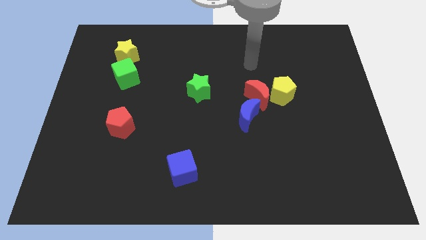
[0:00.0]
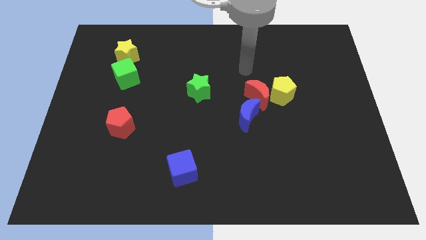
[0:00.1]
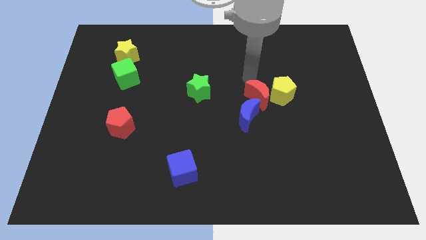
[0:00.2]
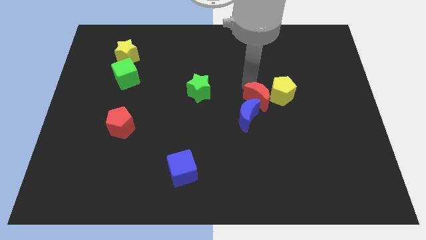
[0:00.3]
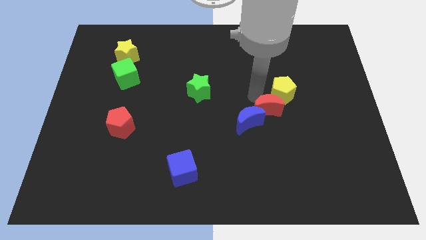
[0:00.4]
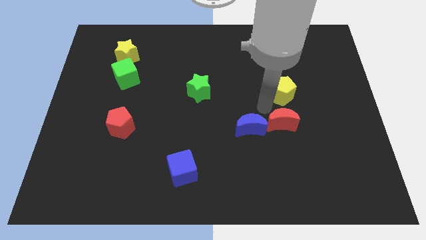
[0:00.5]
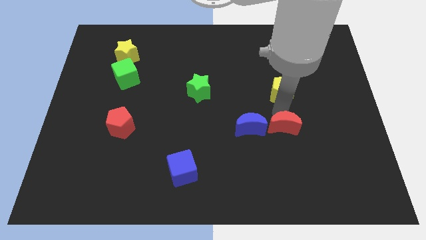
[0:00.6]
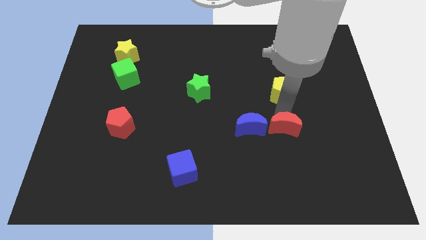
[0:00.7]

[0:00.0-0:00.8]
move the yellow pentagon away from the red moon

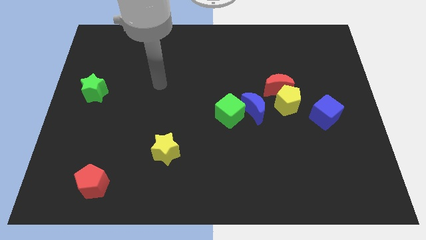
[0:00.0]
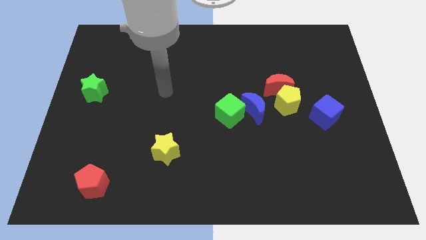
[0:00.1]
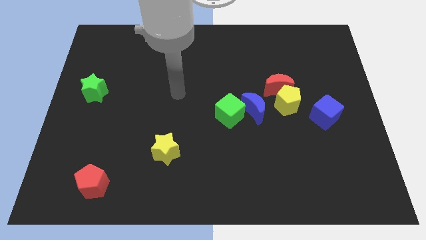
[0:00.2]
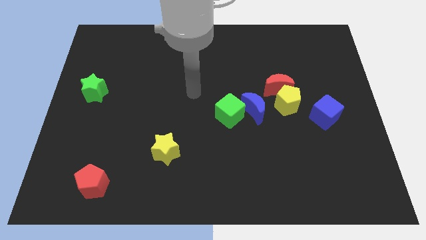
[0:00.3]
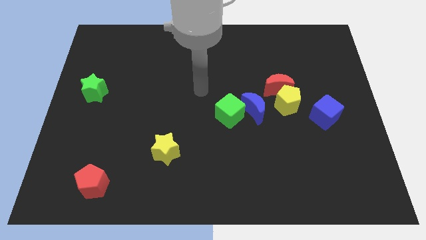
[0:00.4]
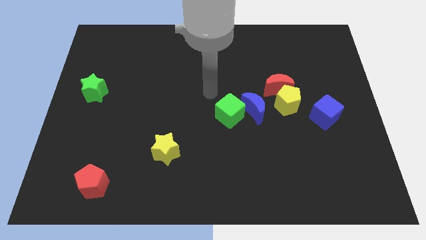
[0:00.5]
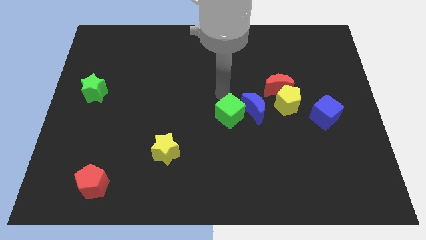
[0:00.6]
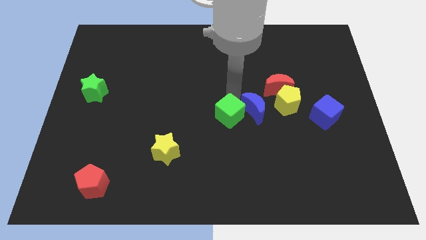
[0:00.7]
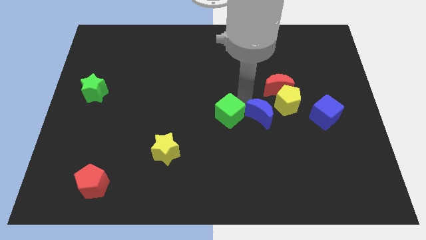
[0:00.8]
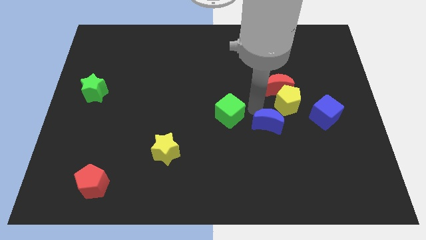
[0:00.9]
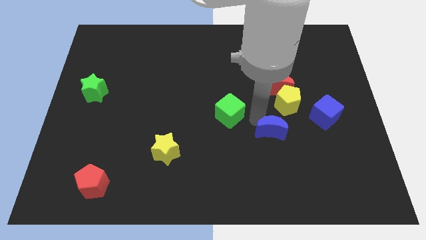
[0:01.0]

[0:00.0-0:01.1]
move the green cube away from the blue moon

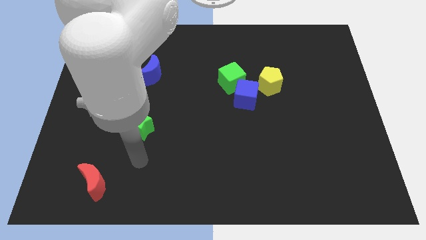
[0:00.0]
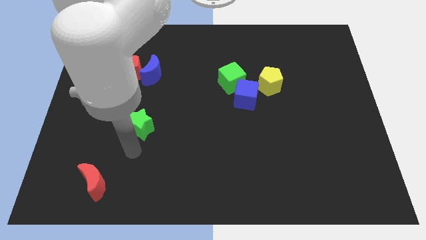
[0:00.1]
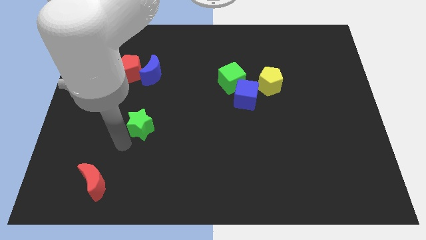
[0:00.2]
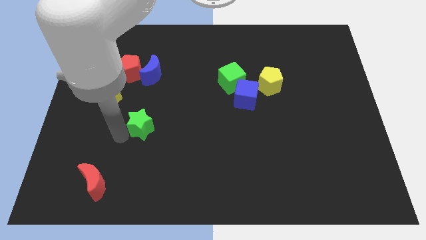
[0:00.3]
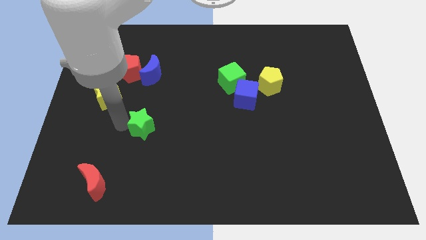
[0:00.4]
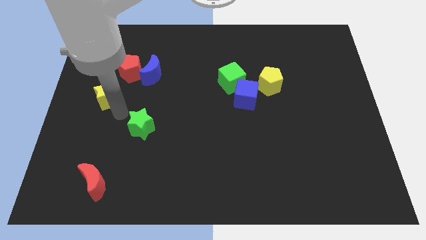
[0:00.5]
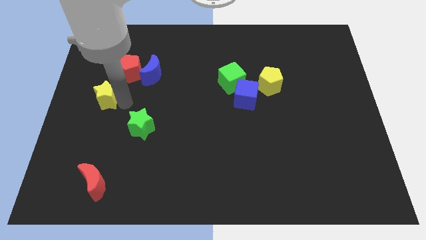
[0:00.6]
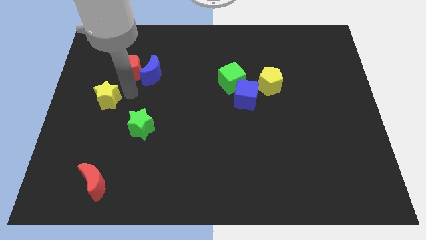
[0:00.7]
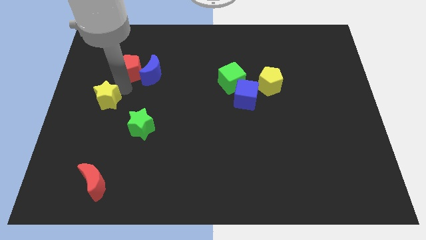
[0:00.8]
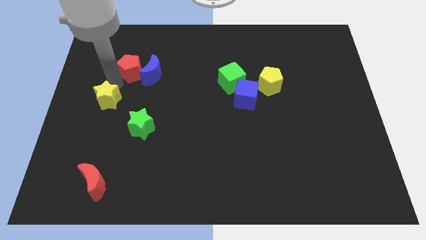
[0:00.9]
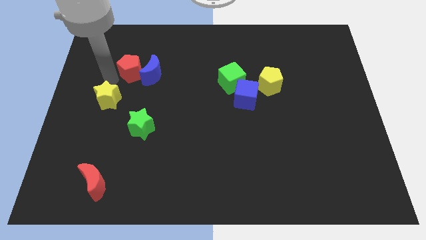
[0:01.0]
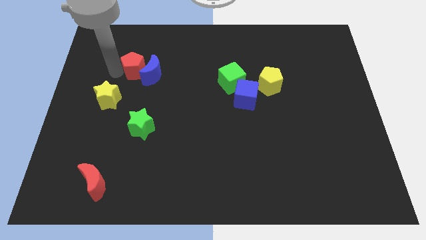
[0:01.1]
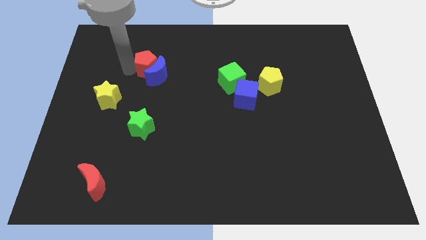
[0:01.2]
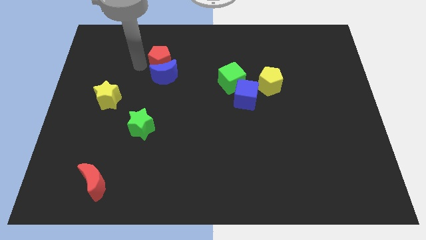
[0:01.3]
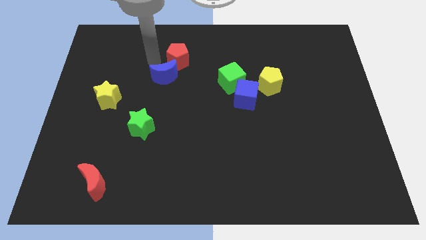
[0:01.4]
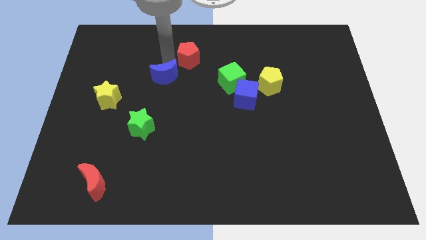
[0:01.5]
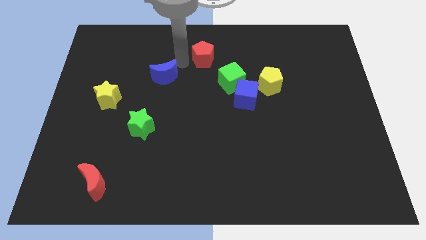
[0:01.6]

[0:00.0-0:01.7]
pull the blue moon apart from the red pentagon

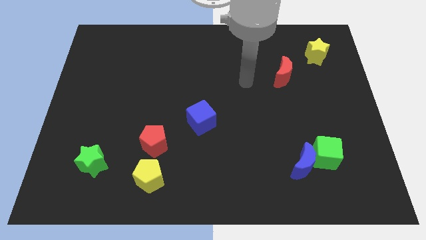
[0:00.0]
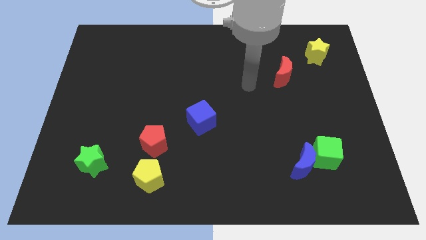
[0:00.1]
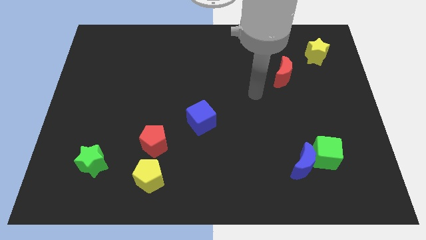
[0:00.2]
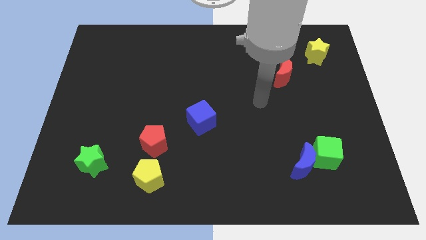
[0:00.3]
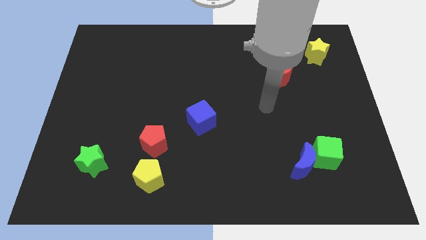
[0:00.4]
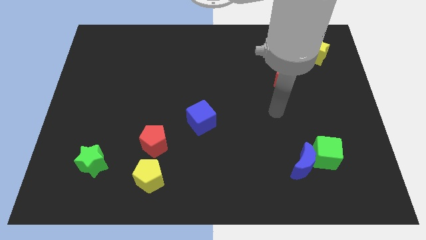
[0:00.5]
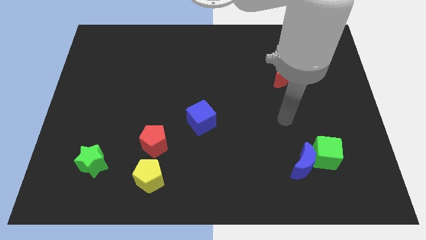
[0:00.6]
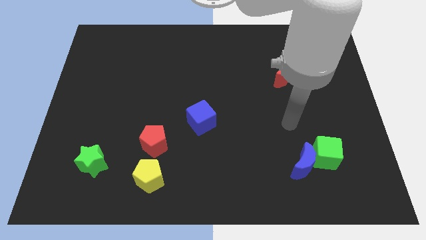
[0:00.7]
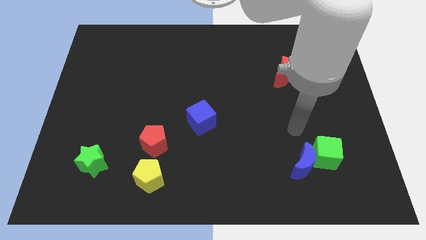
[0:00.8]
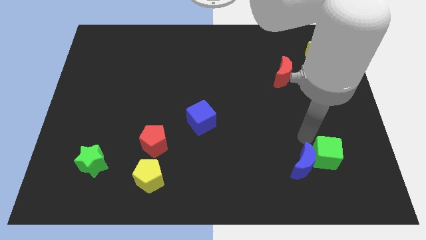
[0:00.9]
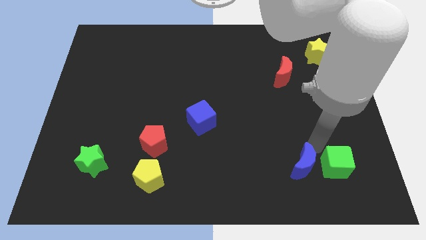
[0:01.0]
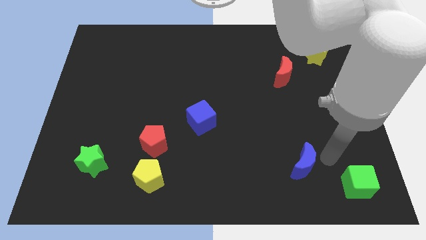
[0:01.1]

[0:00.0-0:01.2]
separate the blue moon from the green cube

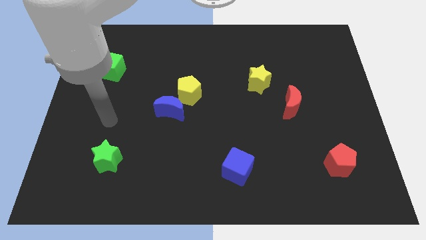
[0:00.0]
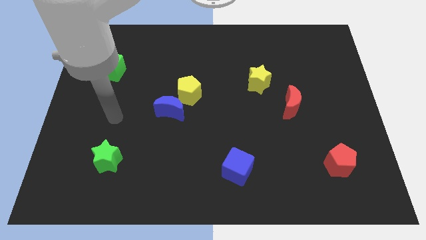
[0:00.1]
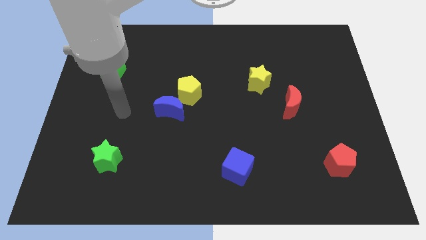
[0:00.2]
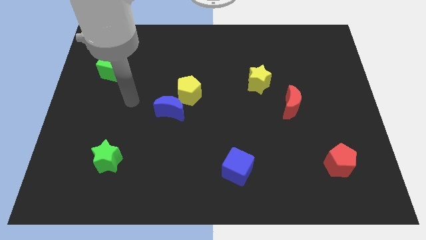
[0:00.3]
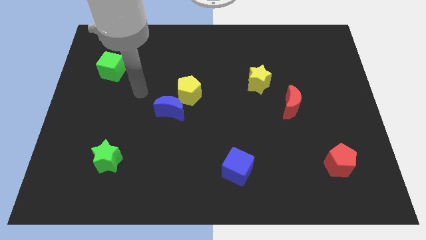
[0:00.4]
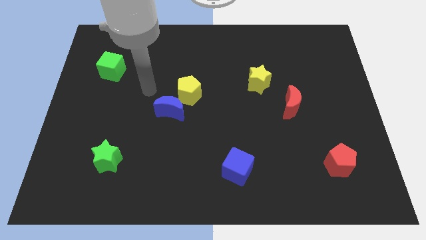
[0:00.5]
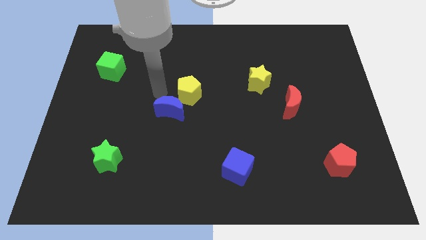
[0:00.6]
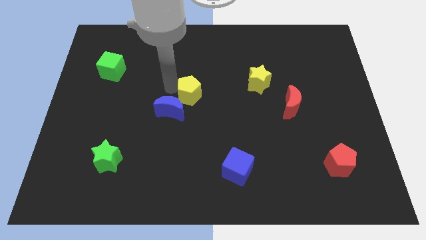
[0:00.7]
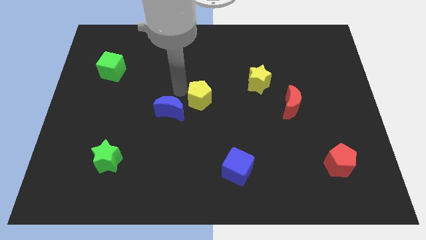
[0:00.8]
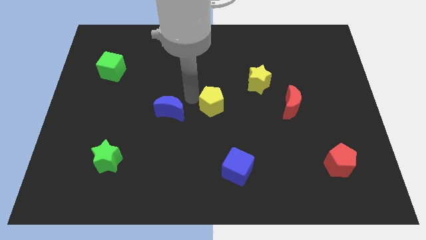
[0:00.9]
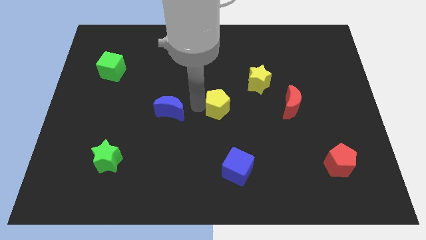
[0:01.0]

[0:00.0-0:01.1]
move the blue moon away from the yellow pentagon

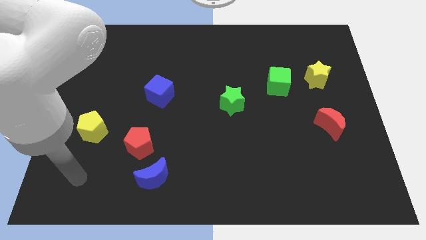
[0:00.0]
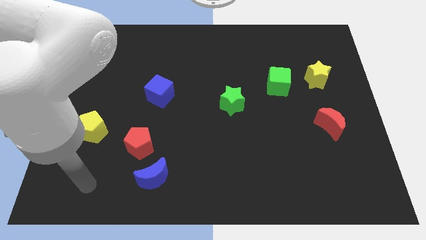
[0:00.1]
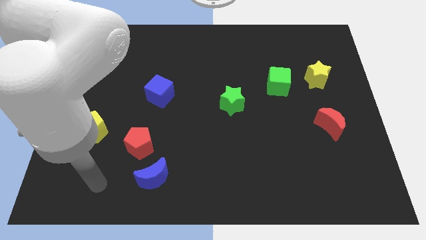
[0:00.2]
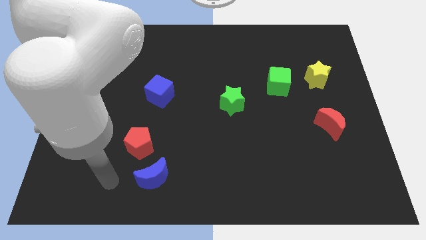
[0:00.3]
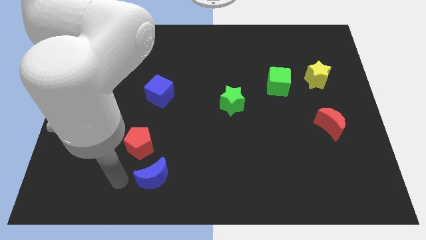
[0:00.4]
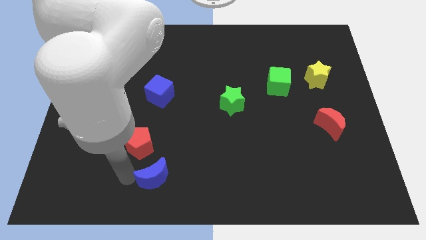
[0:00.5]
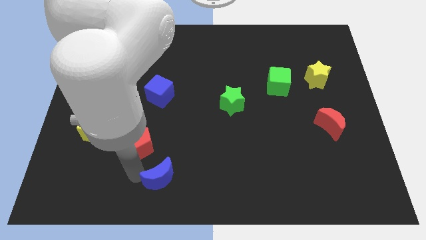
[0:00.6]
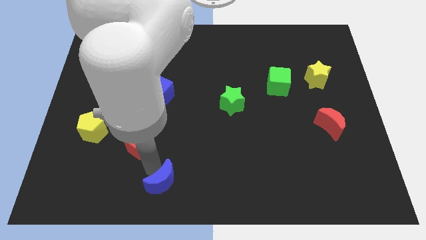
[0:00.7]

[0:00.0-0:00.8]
separate the red pentagon from the blue moon

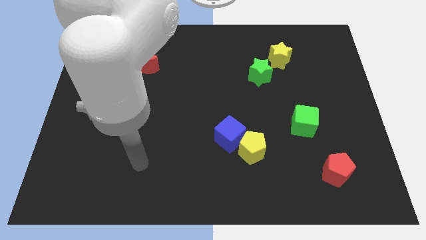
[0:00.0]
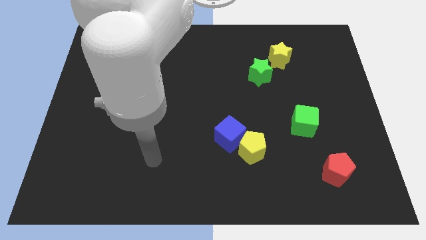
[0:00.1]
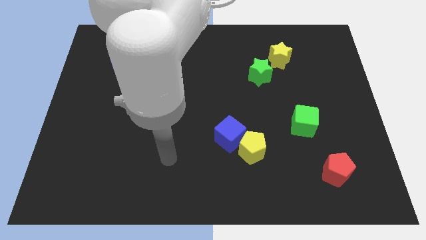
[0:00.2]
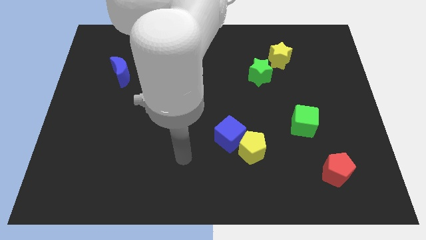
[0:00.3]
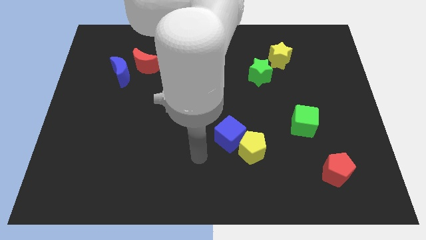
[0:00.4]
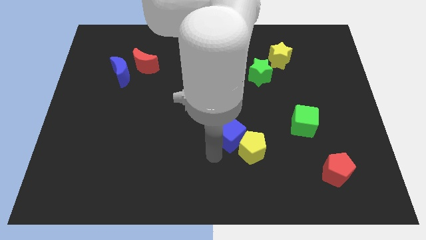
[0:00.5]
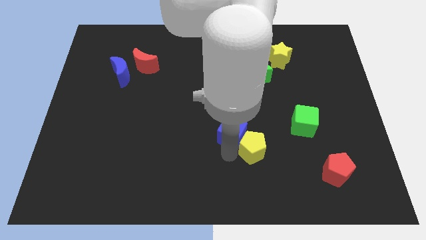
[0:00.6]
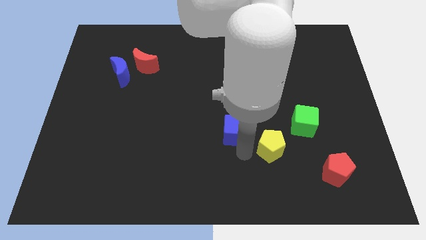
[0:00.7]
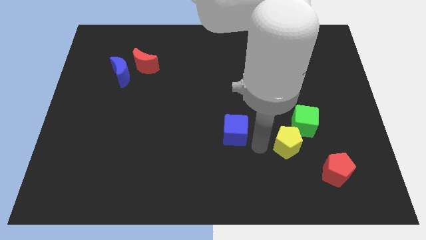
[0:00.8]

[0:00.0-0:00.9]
pull the blue cube apart from the yellow pentagon

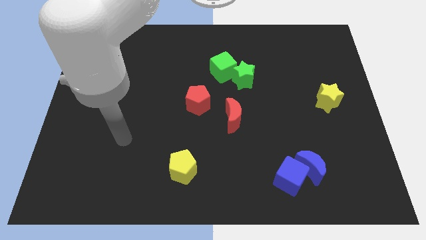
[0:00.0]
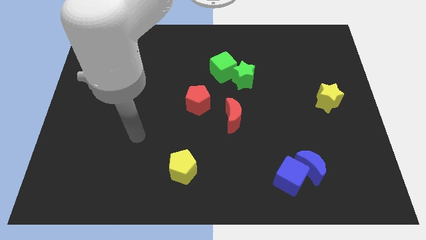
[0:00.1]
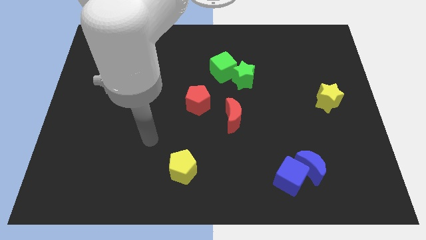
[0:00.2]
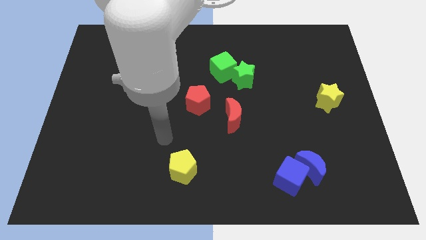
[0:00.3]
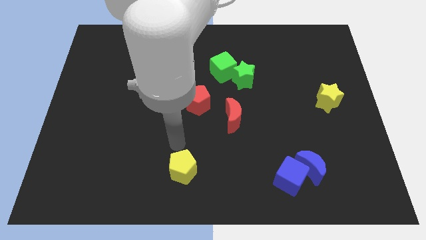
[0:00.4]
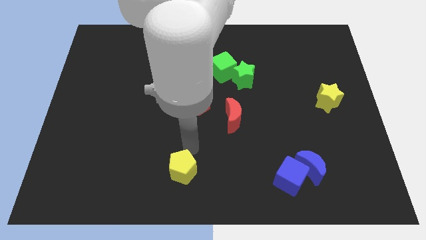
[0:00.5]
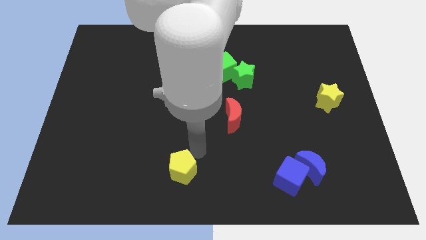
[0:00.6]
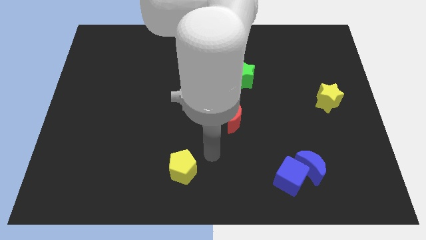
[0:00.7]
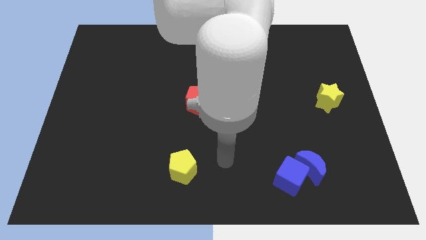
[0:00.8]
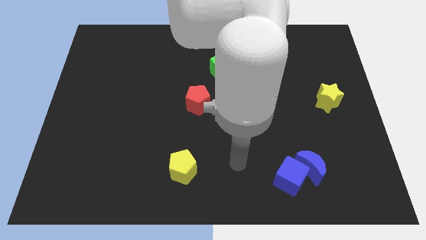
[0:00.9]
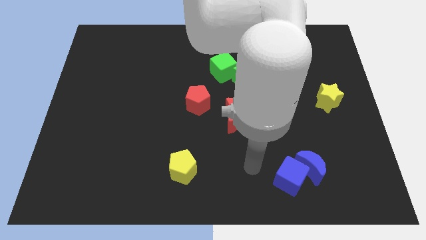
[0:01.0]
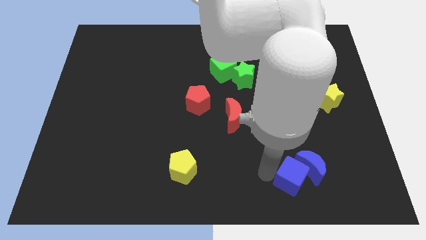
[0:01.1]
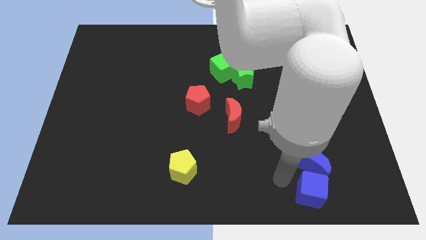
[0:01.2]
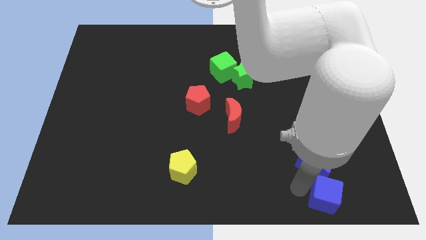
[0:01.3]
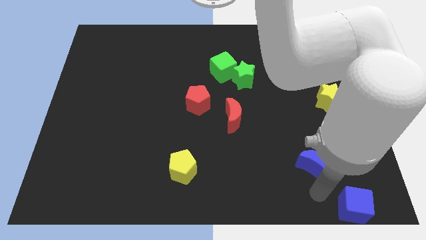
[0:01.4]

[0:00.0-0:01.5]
move the blue moon away from the blue cube

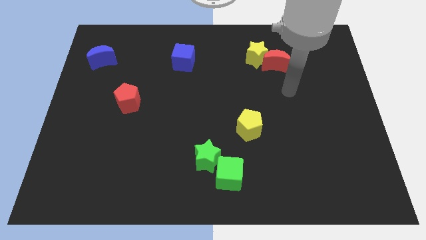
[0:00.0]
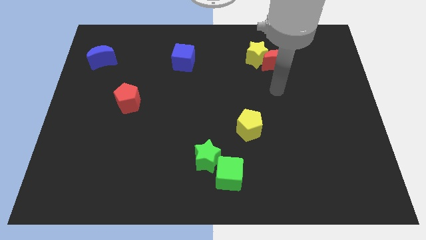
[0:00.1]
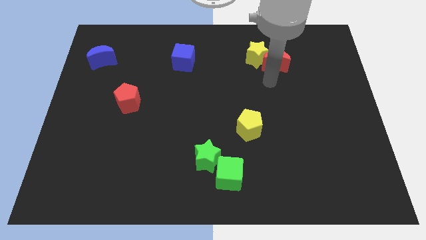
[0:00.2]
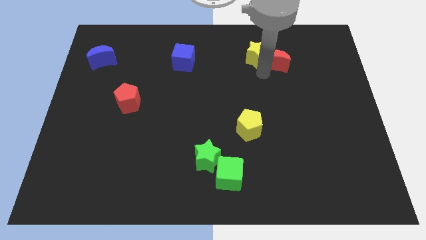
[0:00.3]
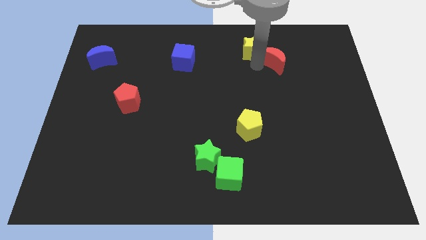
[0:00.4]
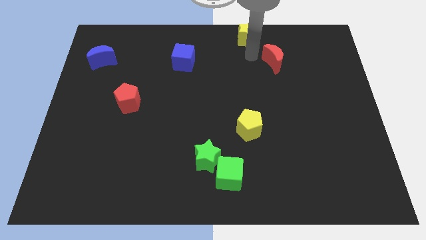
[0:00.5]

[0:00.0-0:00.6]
pull the red moon apart from the yellow star
